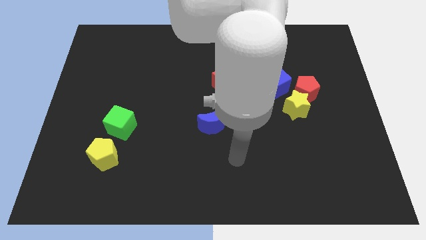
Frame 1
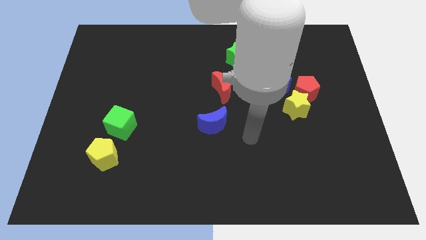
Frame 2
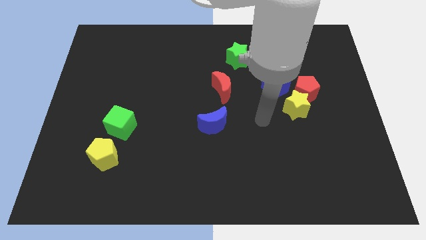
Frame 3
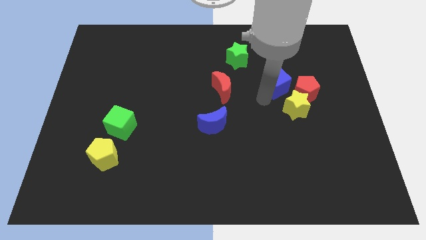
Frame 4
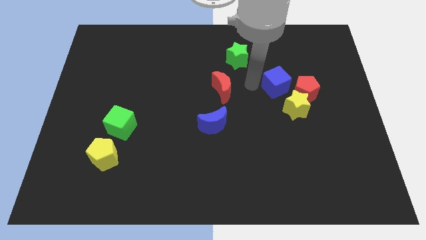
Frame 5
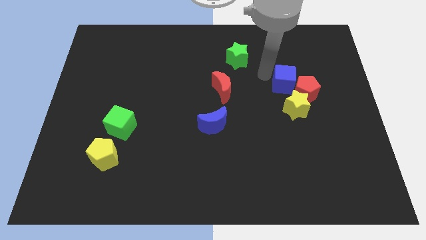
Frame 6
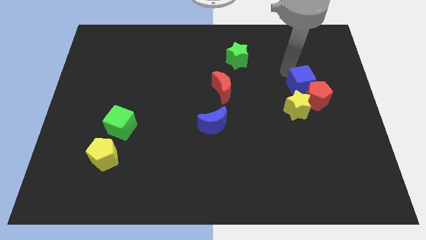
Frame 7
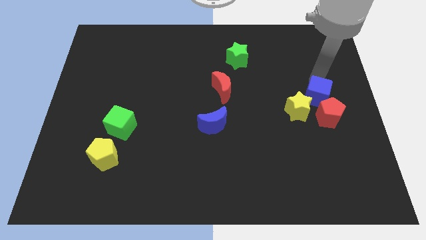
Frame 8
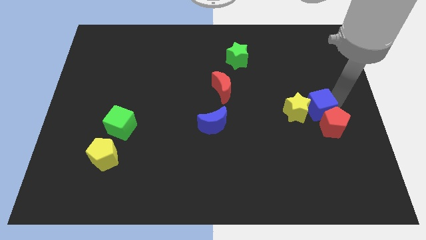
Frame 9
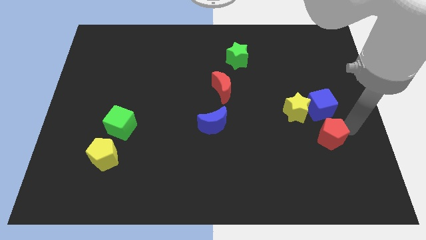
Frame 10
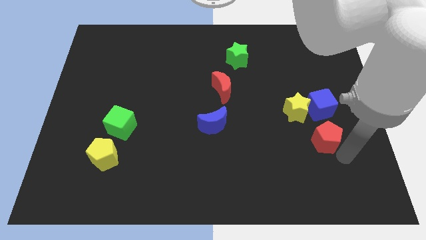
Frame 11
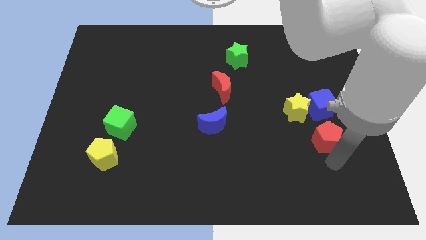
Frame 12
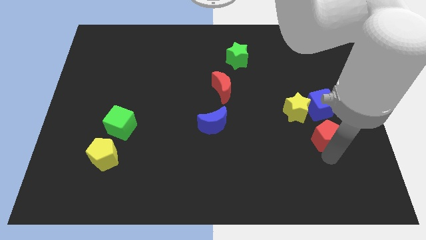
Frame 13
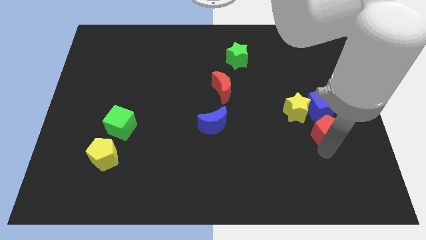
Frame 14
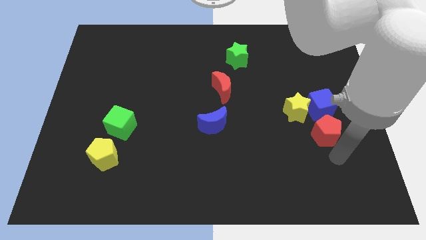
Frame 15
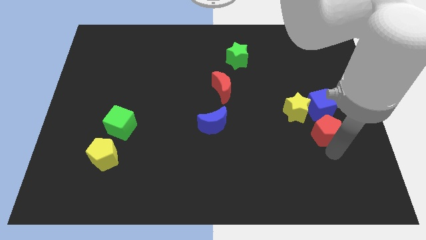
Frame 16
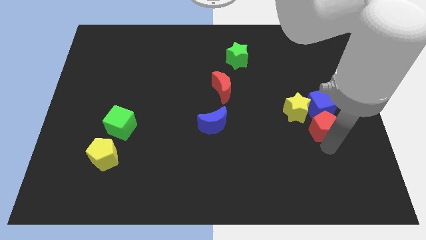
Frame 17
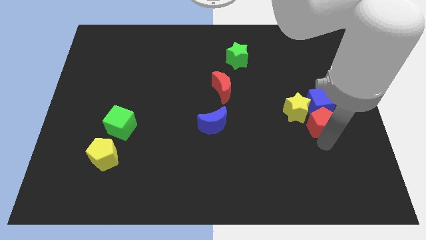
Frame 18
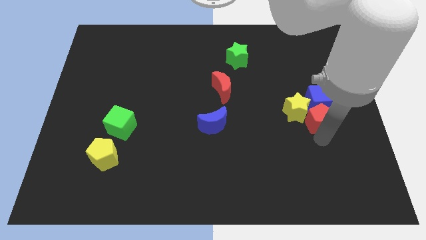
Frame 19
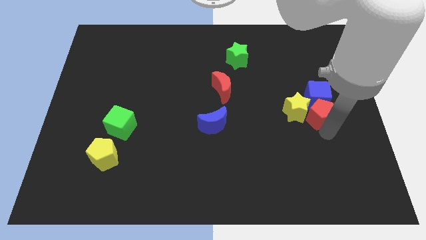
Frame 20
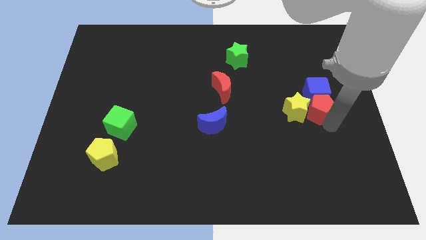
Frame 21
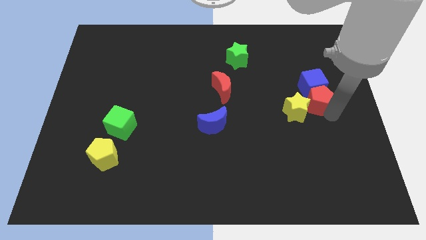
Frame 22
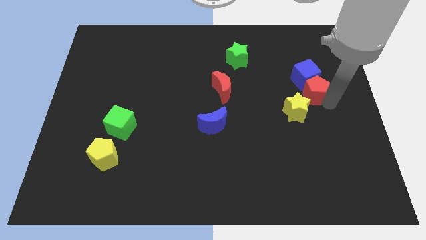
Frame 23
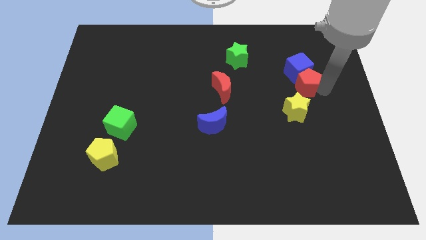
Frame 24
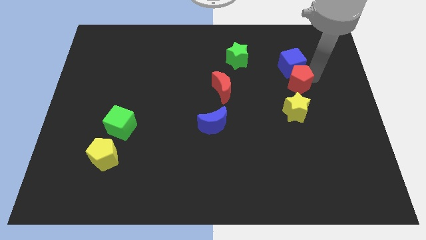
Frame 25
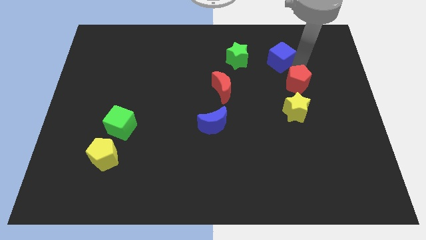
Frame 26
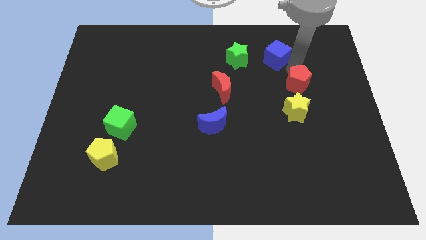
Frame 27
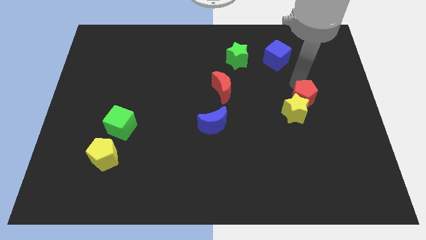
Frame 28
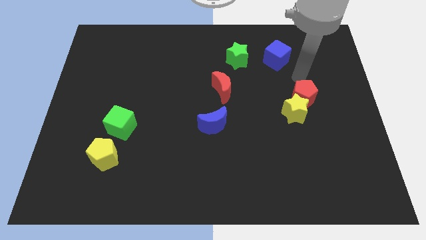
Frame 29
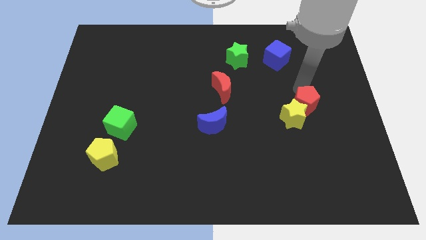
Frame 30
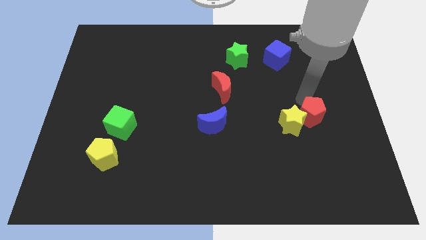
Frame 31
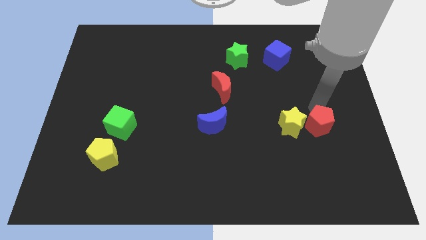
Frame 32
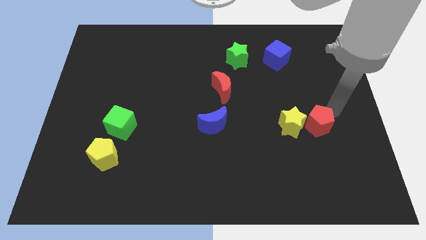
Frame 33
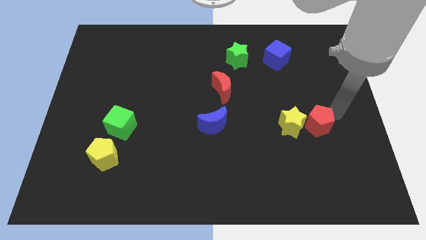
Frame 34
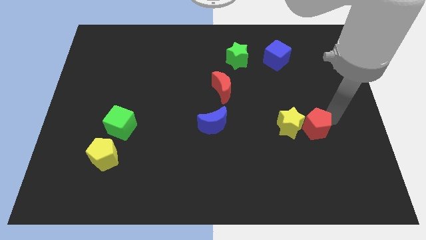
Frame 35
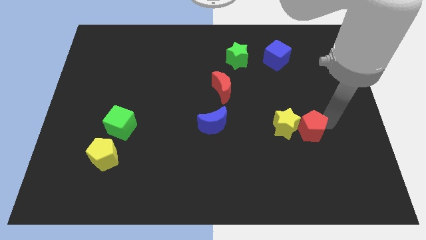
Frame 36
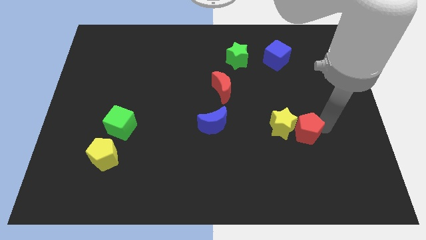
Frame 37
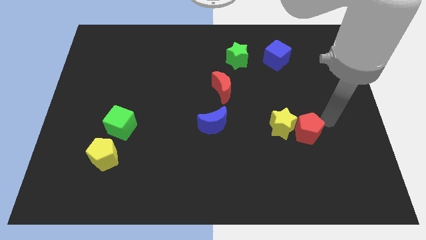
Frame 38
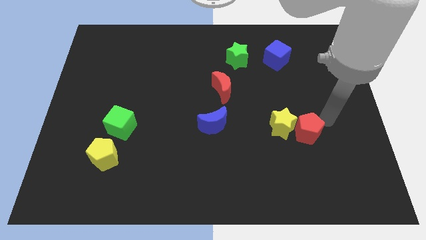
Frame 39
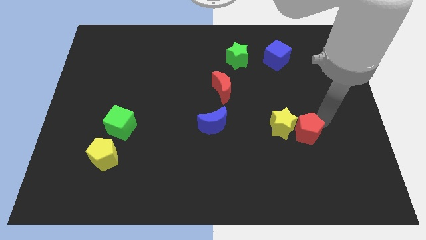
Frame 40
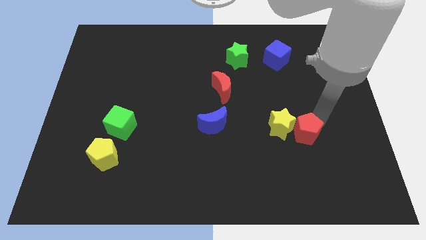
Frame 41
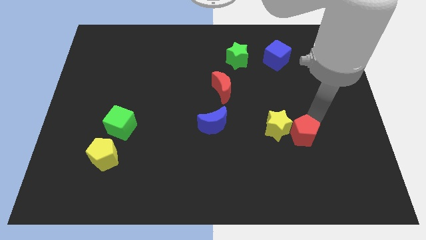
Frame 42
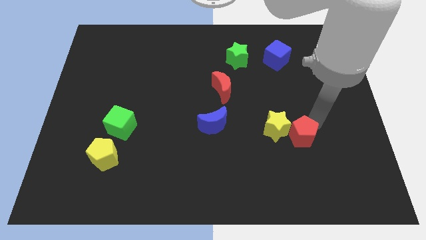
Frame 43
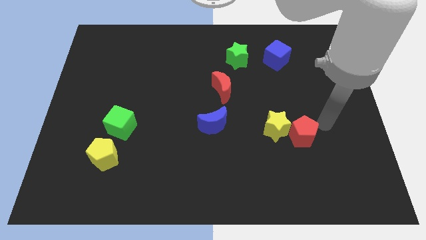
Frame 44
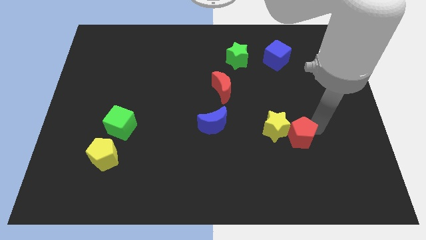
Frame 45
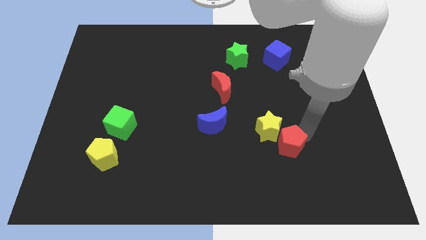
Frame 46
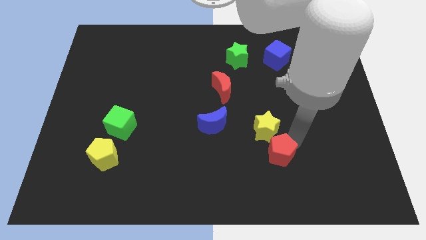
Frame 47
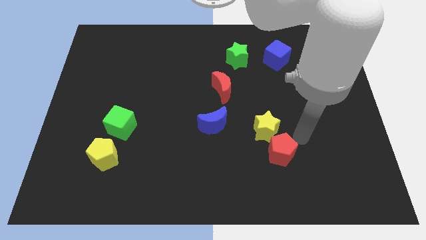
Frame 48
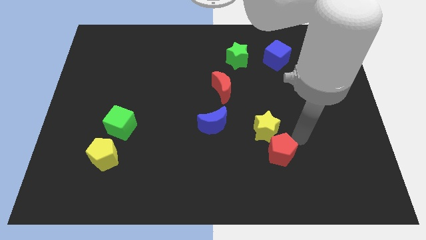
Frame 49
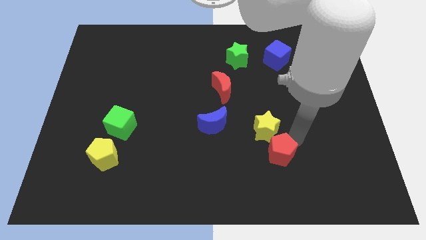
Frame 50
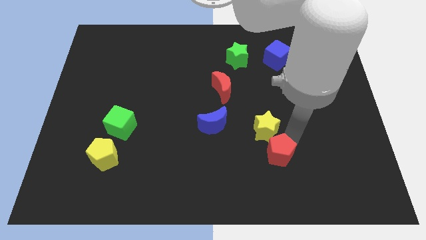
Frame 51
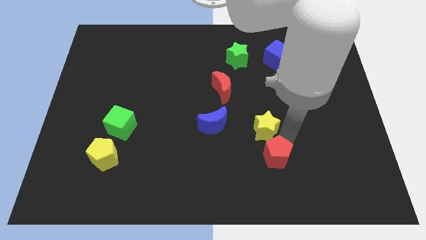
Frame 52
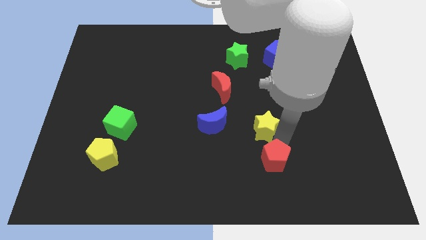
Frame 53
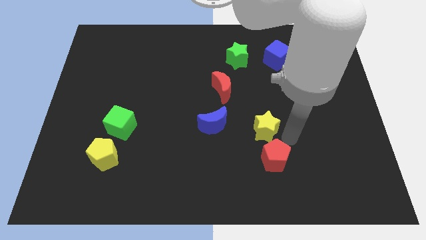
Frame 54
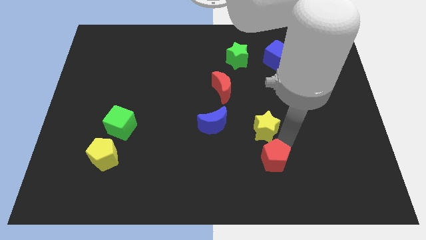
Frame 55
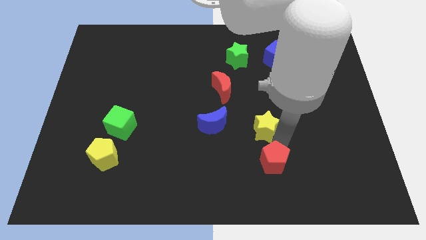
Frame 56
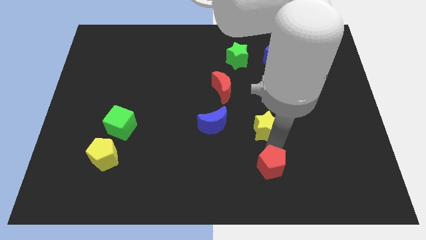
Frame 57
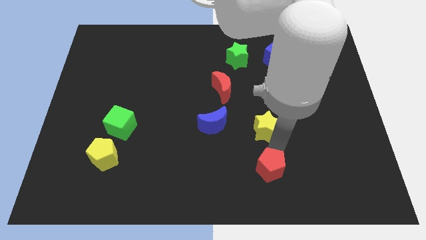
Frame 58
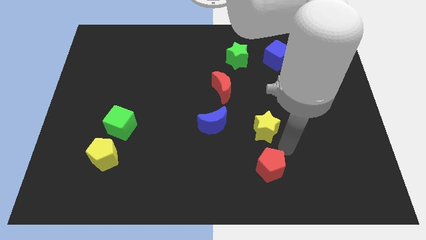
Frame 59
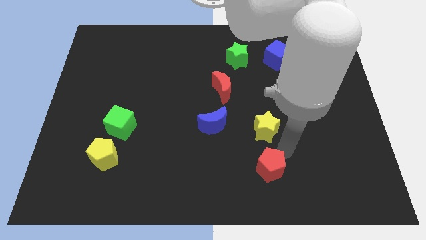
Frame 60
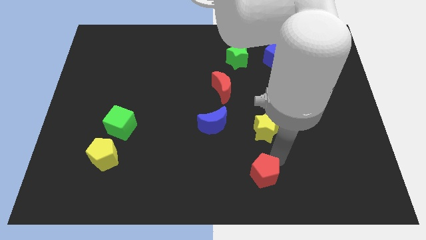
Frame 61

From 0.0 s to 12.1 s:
move the red pentagon to the bottom
